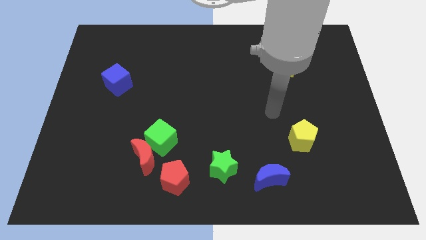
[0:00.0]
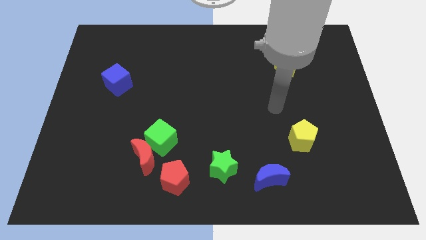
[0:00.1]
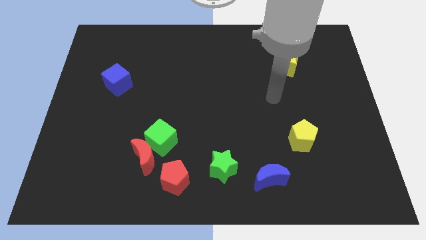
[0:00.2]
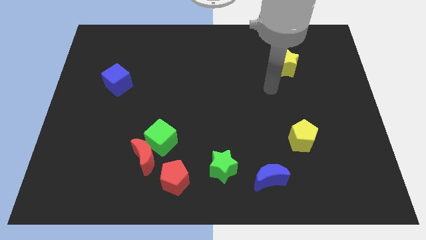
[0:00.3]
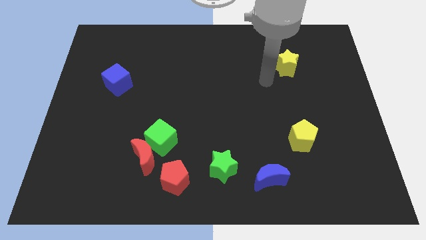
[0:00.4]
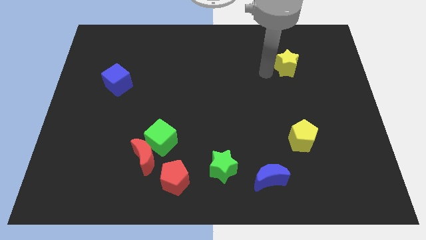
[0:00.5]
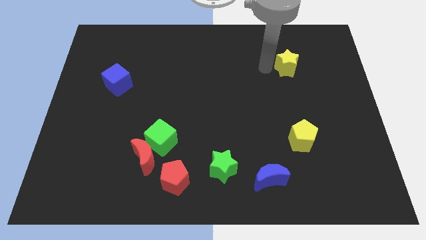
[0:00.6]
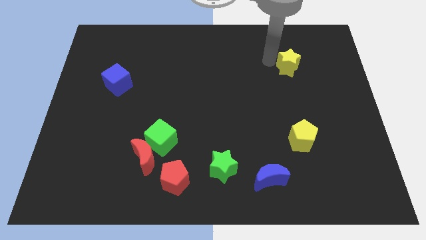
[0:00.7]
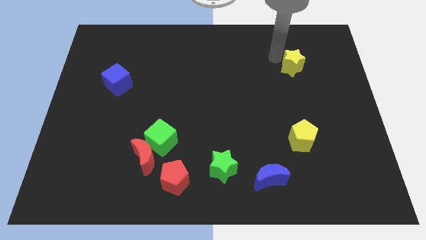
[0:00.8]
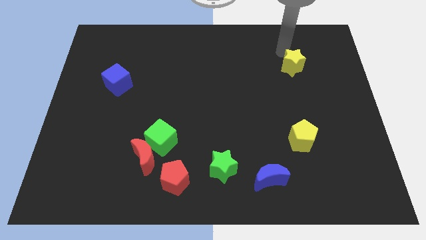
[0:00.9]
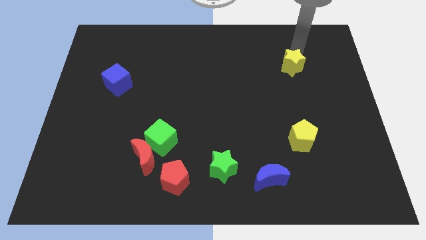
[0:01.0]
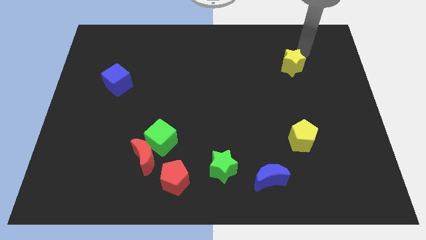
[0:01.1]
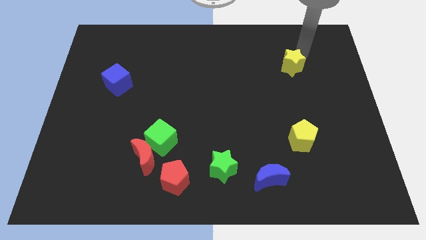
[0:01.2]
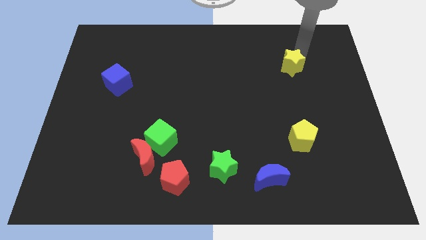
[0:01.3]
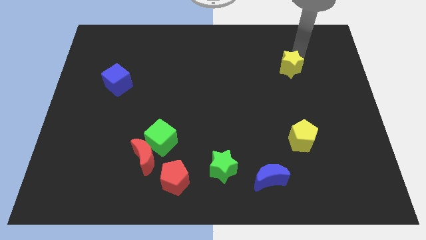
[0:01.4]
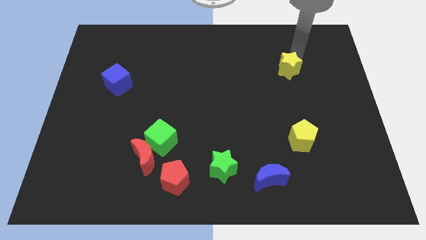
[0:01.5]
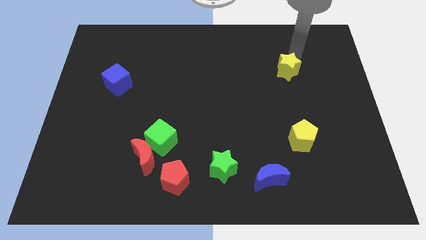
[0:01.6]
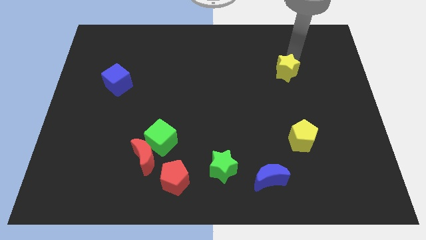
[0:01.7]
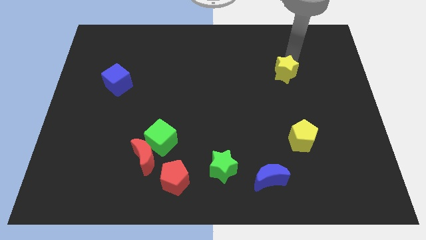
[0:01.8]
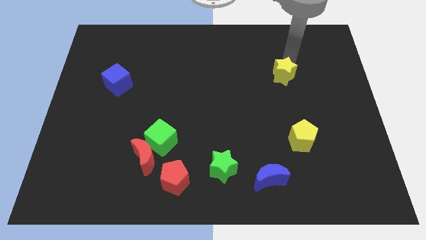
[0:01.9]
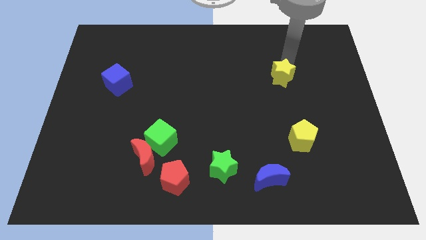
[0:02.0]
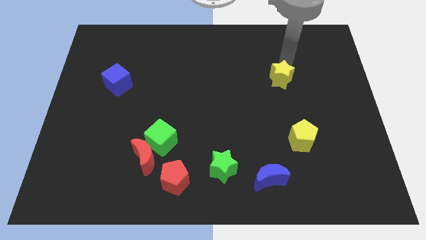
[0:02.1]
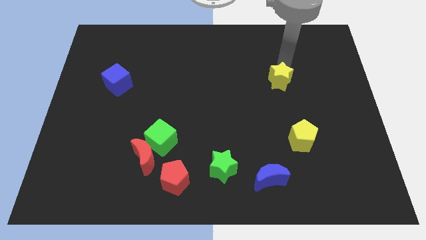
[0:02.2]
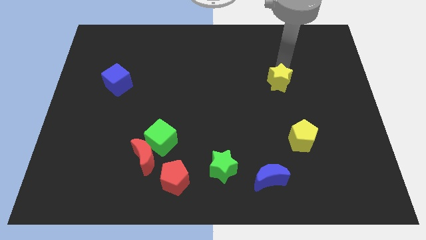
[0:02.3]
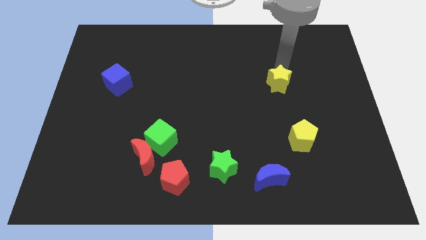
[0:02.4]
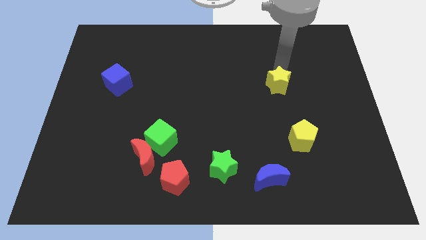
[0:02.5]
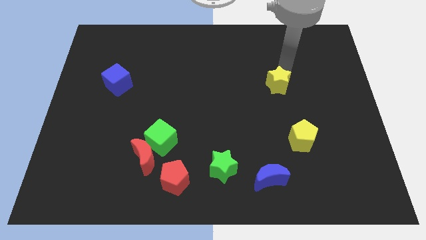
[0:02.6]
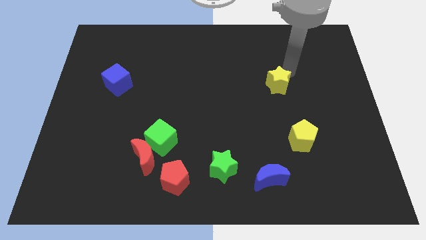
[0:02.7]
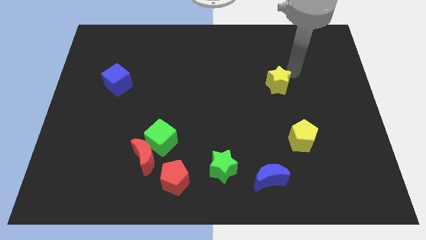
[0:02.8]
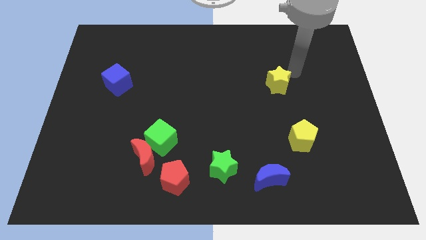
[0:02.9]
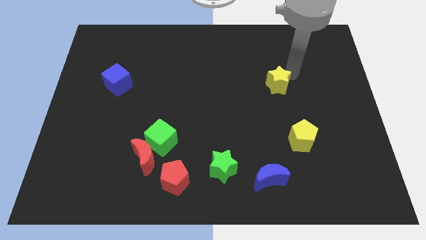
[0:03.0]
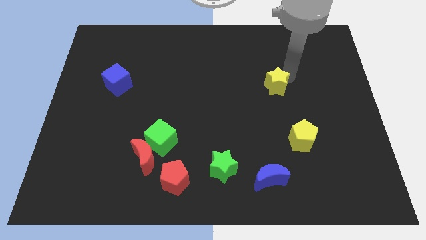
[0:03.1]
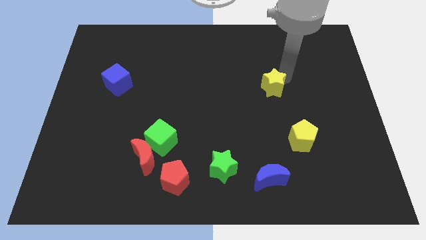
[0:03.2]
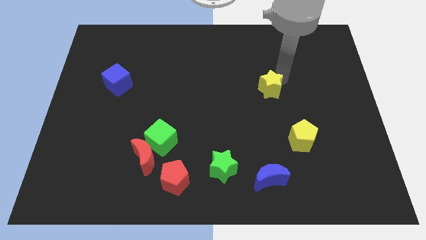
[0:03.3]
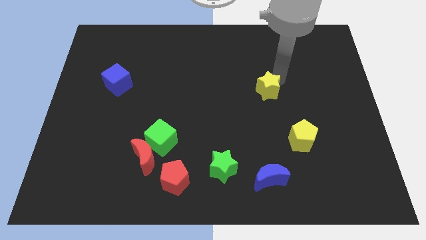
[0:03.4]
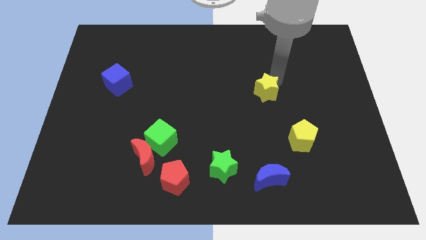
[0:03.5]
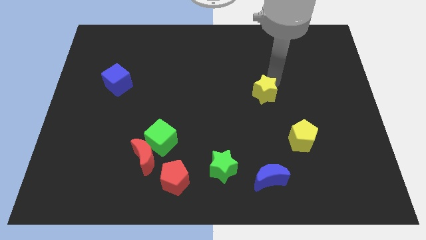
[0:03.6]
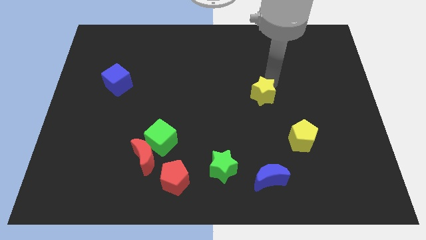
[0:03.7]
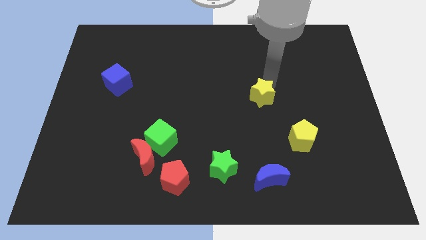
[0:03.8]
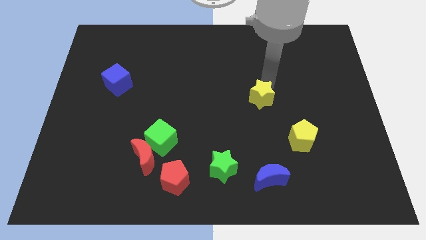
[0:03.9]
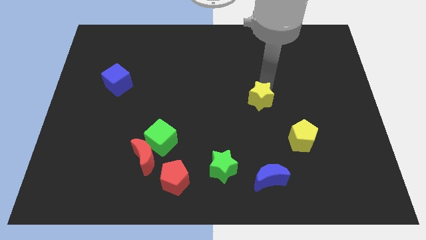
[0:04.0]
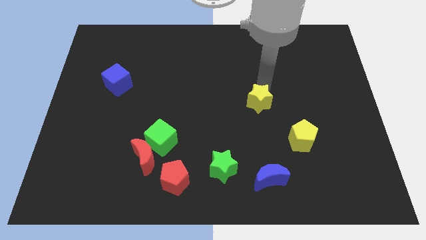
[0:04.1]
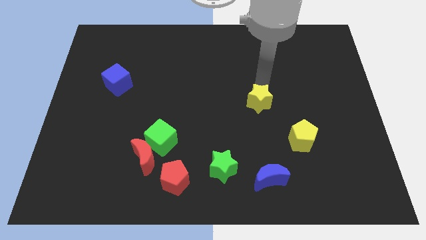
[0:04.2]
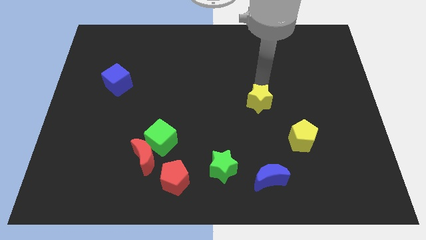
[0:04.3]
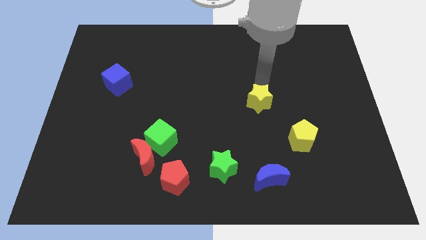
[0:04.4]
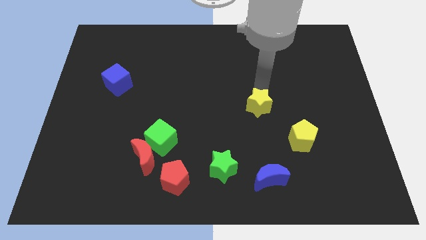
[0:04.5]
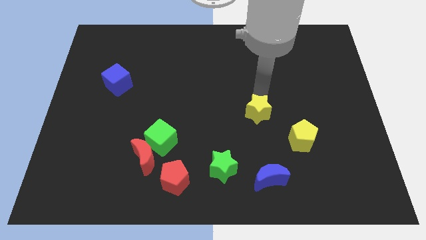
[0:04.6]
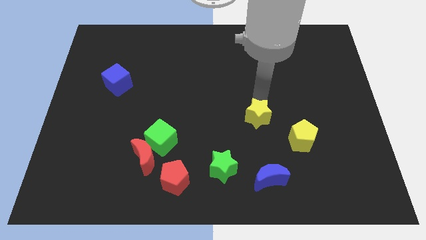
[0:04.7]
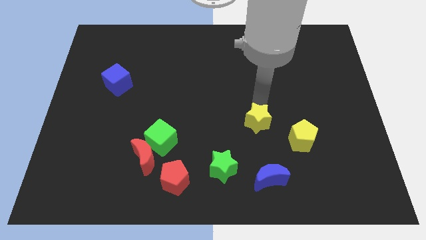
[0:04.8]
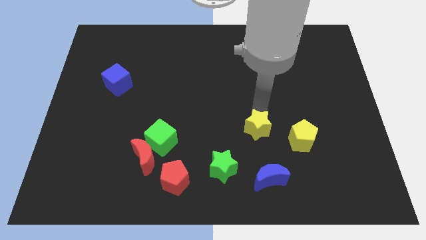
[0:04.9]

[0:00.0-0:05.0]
slide the yellow star diagonally up and to the right of the green star

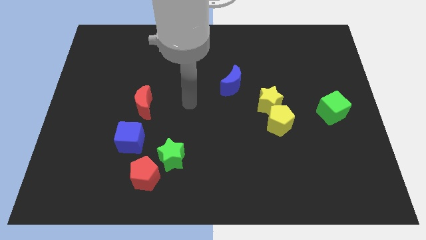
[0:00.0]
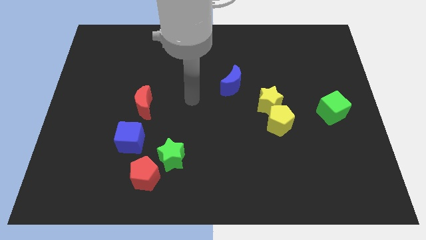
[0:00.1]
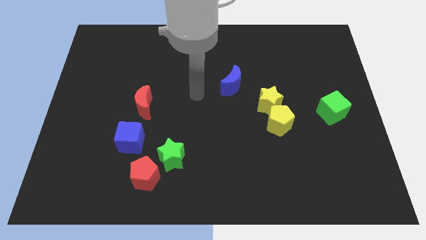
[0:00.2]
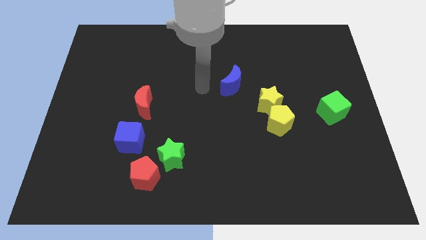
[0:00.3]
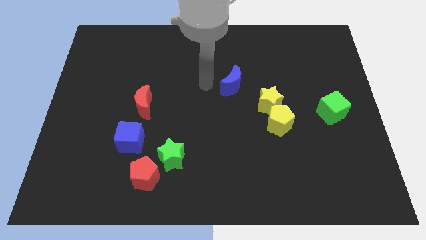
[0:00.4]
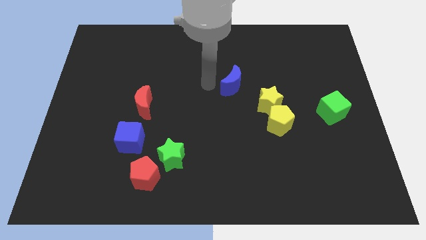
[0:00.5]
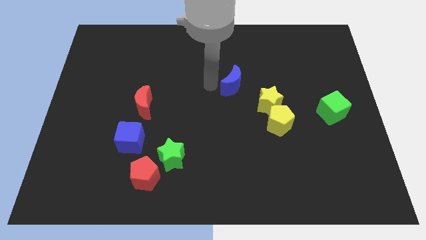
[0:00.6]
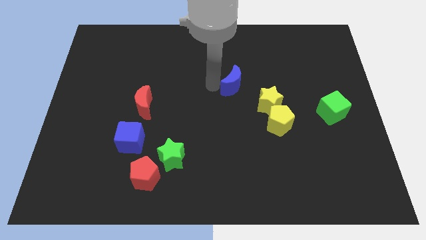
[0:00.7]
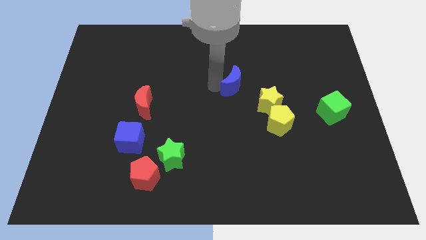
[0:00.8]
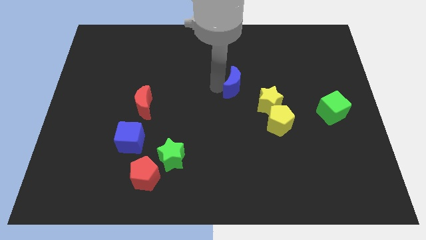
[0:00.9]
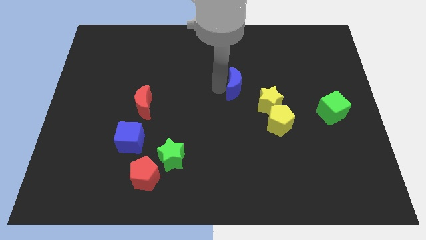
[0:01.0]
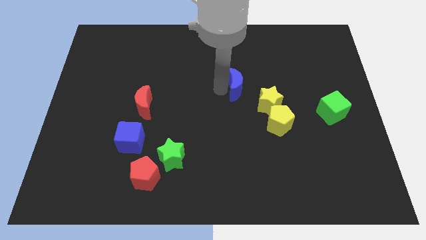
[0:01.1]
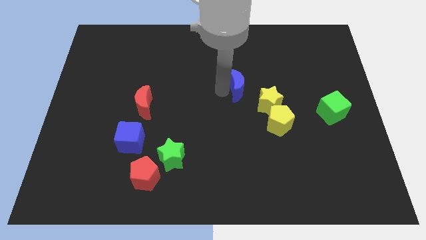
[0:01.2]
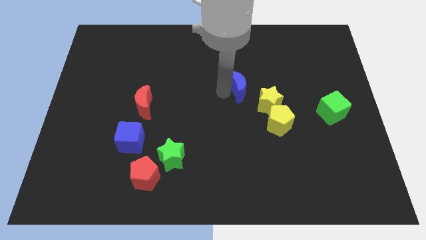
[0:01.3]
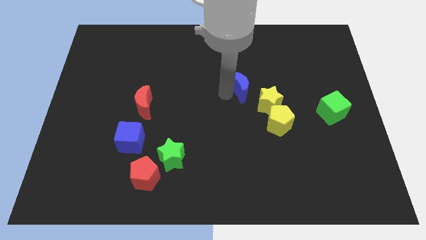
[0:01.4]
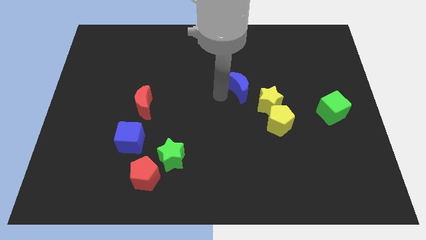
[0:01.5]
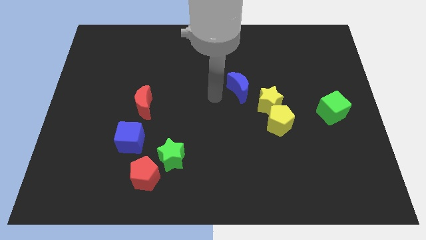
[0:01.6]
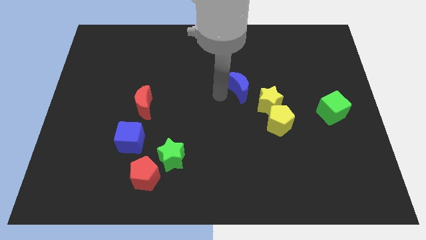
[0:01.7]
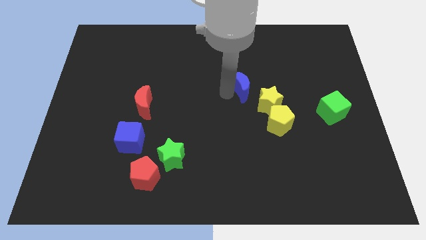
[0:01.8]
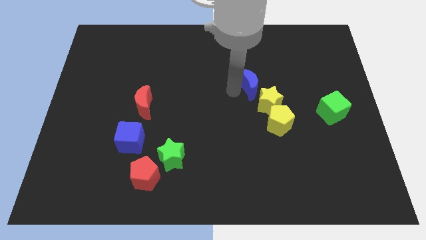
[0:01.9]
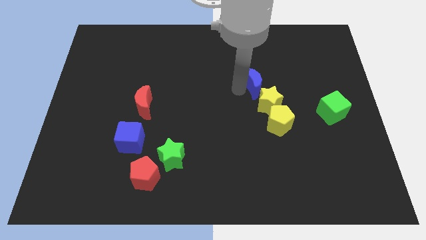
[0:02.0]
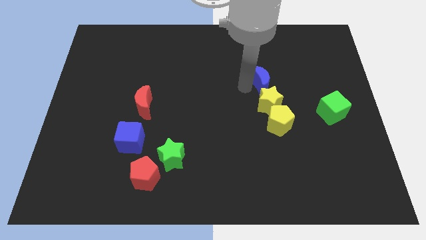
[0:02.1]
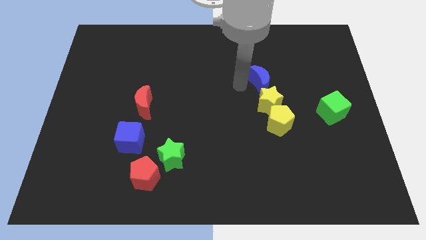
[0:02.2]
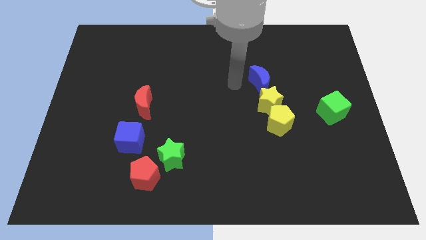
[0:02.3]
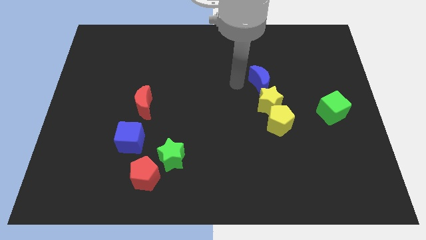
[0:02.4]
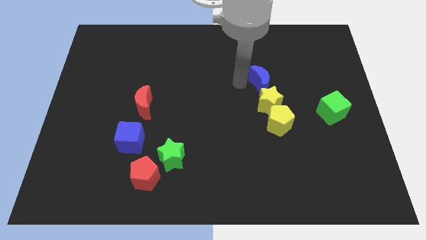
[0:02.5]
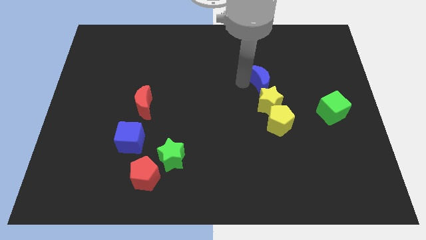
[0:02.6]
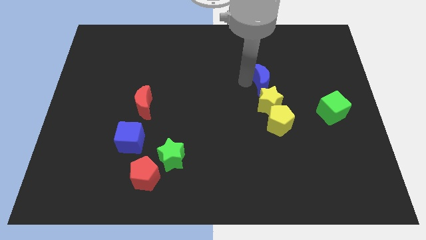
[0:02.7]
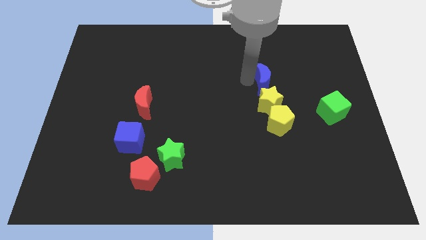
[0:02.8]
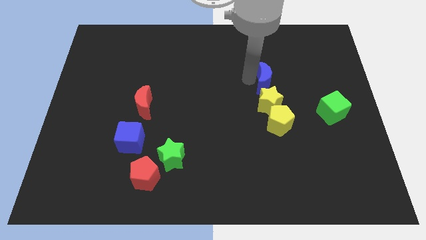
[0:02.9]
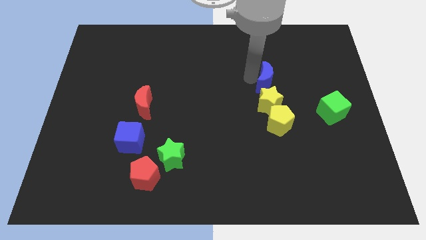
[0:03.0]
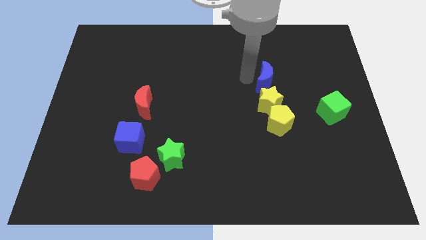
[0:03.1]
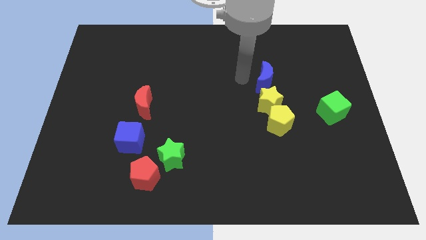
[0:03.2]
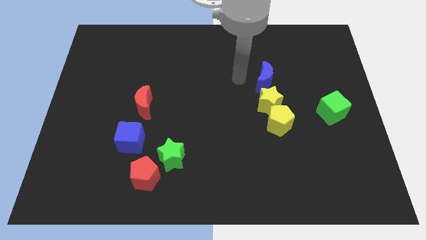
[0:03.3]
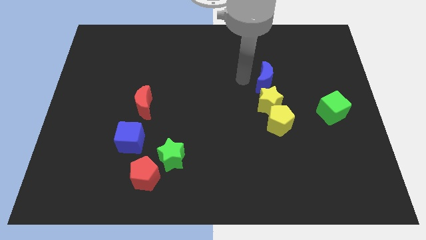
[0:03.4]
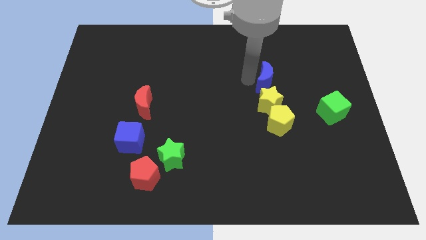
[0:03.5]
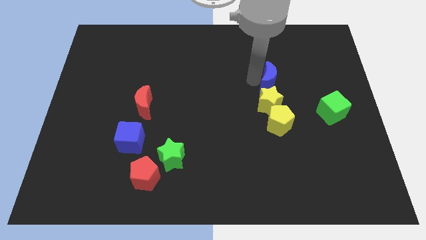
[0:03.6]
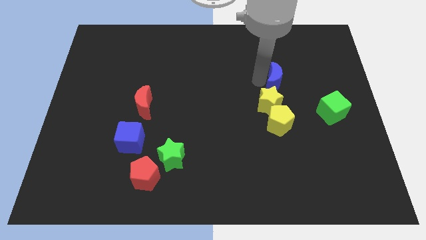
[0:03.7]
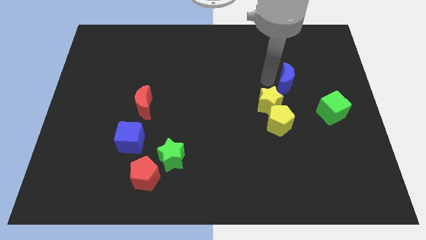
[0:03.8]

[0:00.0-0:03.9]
push the blue moon diagonally up and to the left of the green cube
